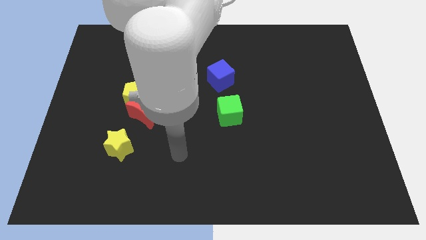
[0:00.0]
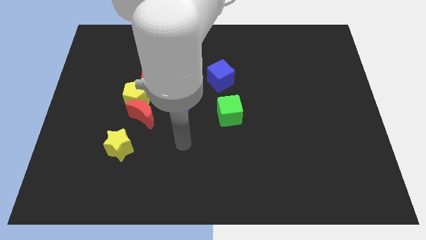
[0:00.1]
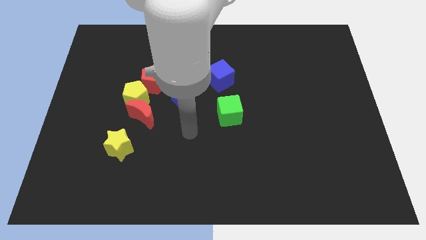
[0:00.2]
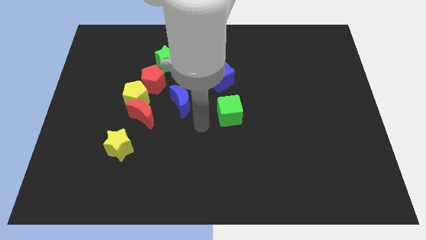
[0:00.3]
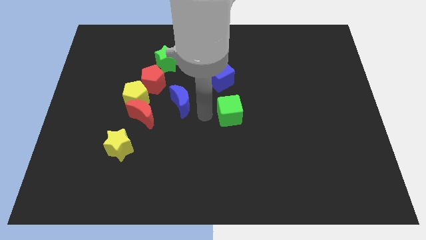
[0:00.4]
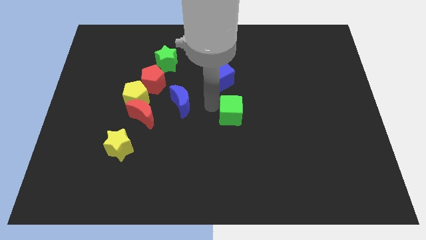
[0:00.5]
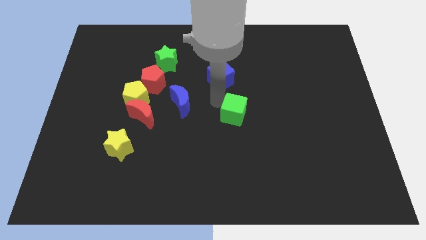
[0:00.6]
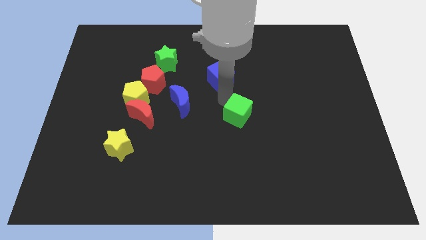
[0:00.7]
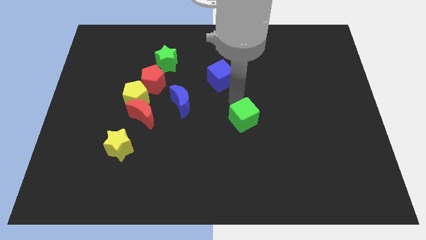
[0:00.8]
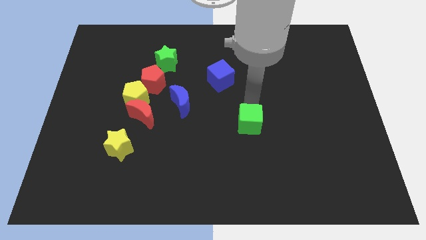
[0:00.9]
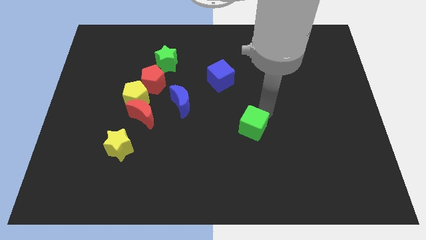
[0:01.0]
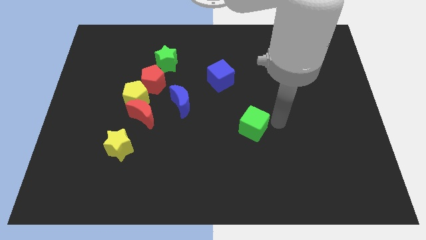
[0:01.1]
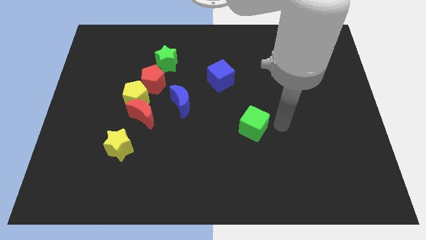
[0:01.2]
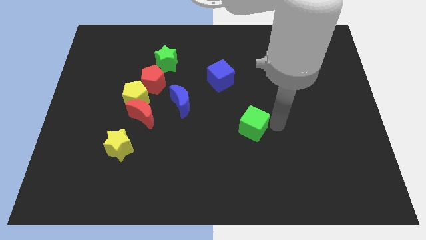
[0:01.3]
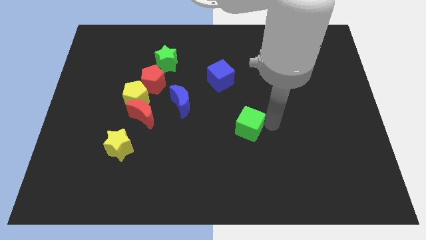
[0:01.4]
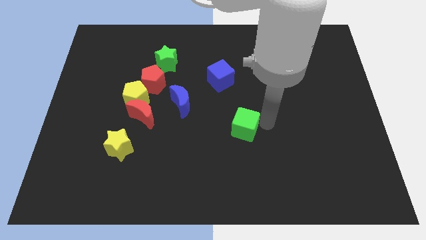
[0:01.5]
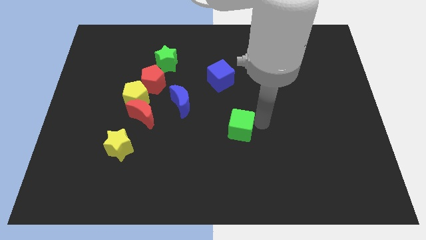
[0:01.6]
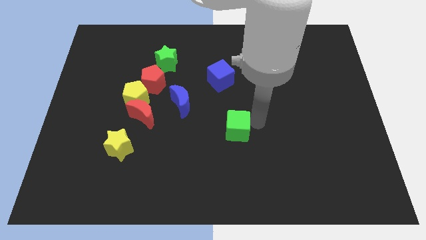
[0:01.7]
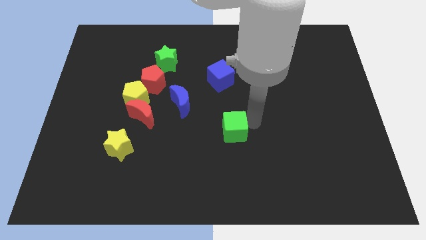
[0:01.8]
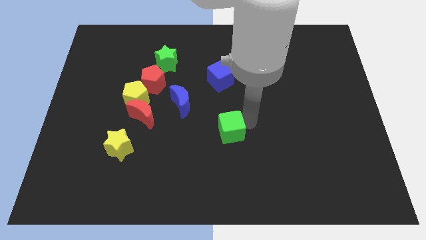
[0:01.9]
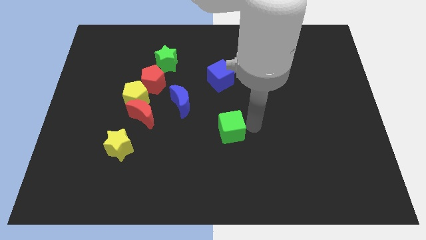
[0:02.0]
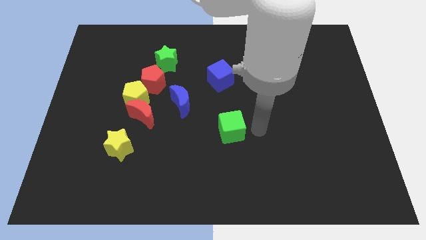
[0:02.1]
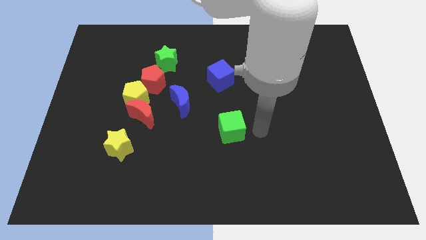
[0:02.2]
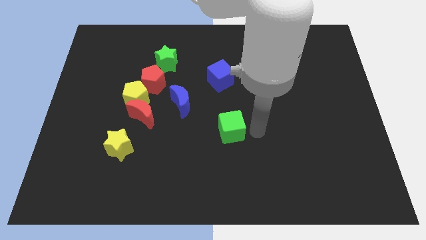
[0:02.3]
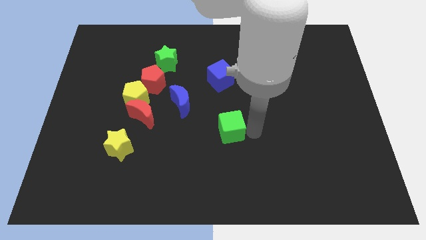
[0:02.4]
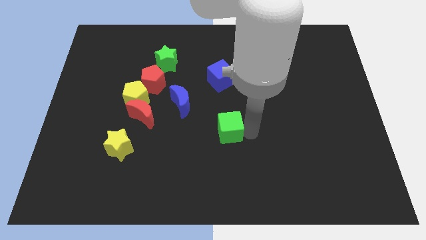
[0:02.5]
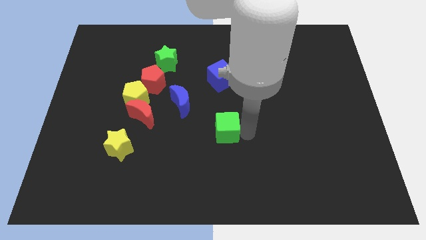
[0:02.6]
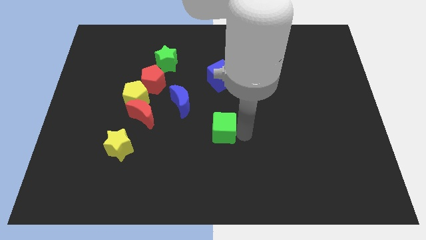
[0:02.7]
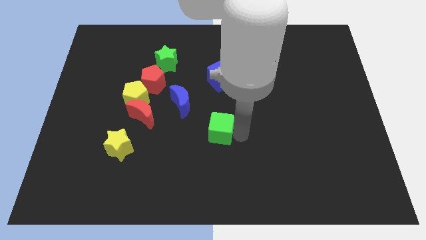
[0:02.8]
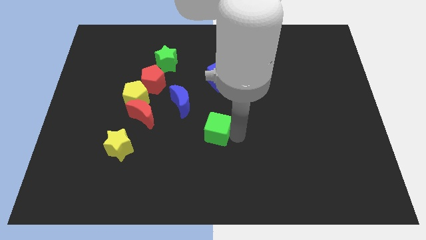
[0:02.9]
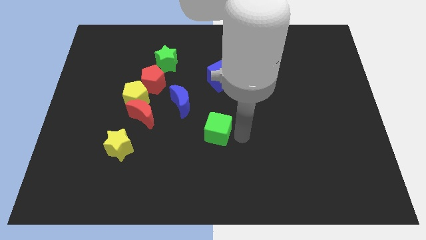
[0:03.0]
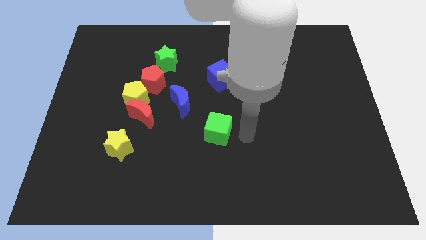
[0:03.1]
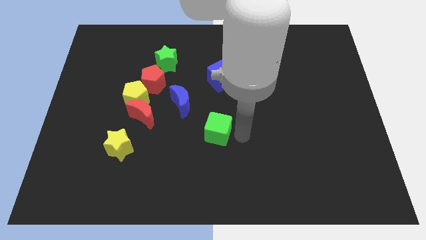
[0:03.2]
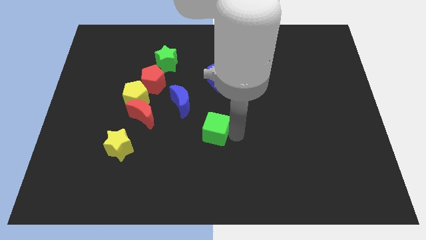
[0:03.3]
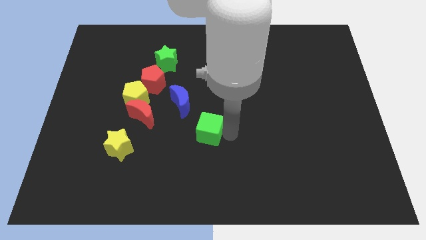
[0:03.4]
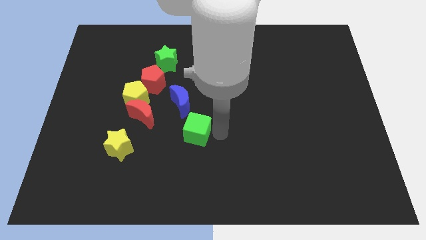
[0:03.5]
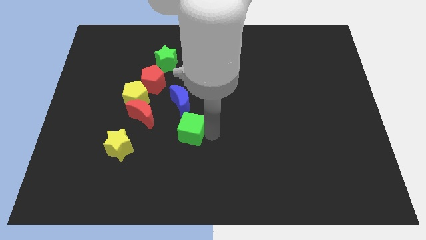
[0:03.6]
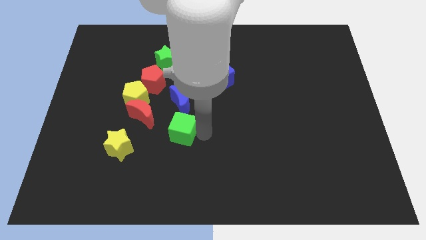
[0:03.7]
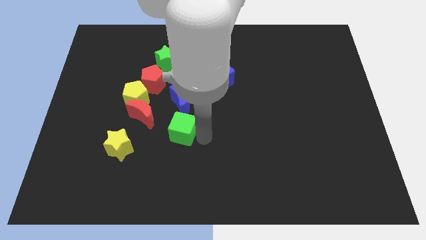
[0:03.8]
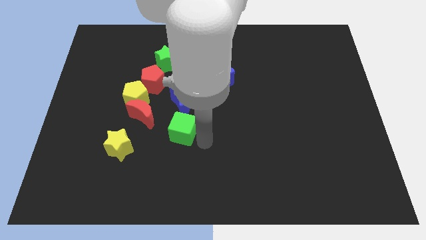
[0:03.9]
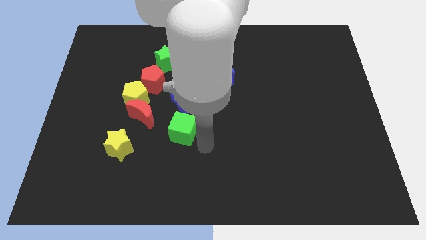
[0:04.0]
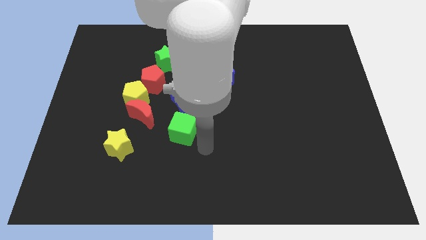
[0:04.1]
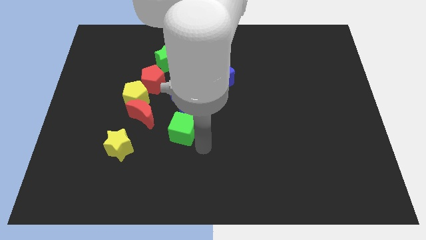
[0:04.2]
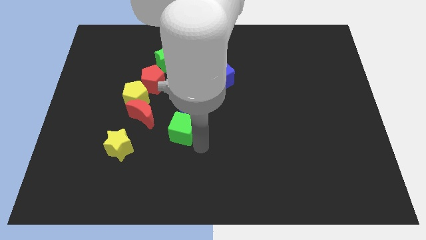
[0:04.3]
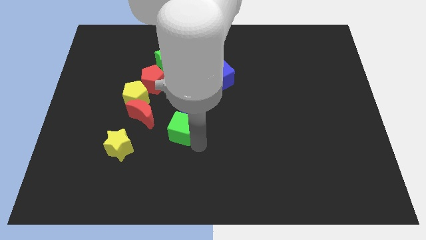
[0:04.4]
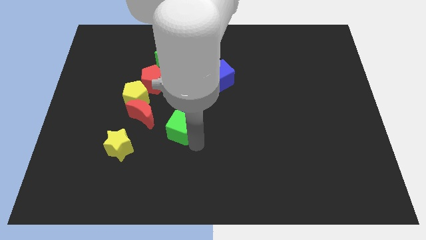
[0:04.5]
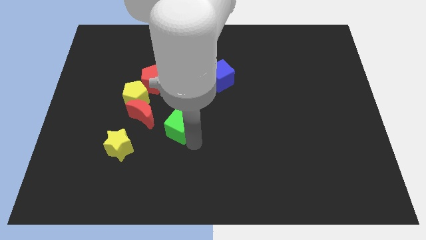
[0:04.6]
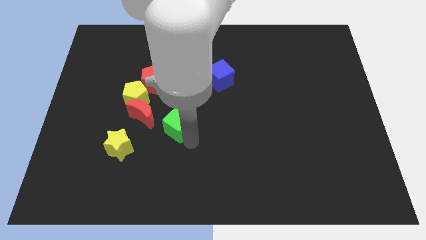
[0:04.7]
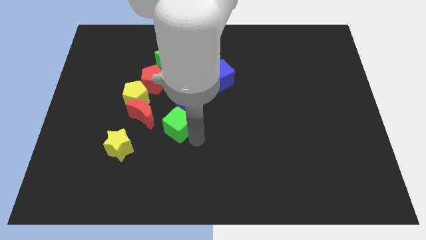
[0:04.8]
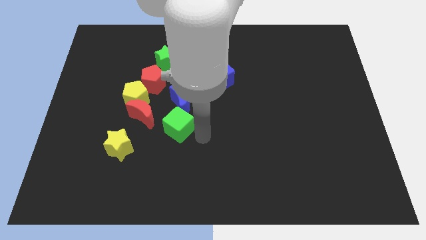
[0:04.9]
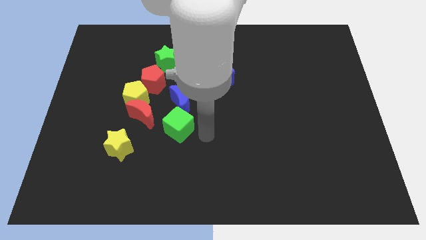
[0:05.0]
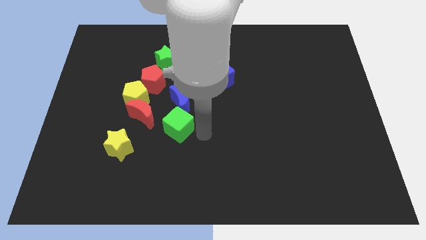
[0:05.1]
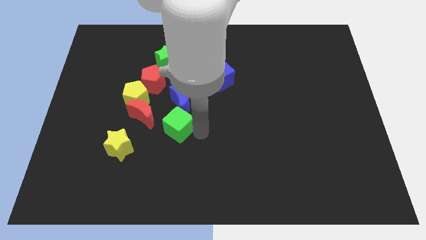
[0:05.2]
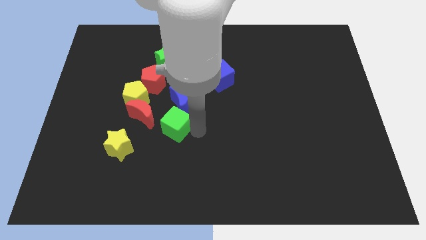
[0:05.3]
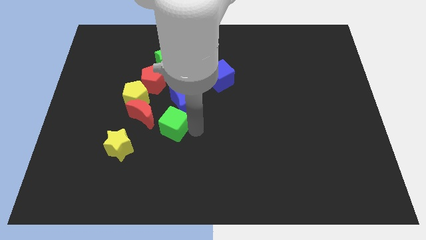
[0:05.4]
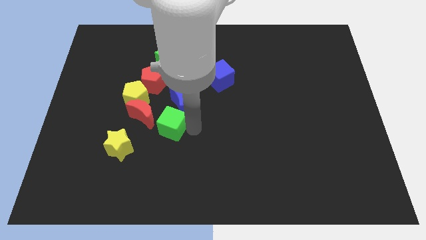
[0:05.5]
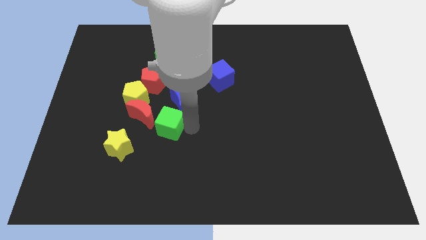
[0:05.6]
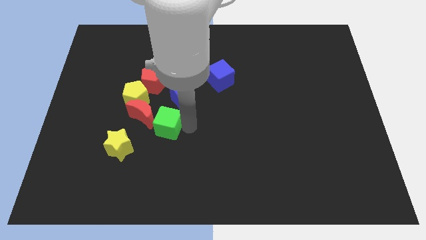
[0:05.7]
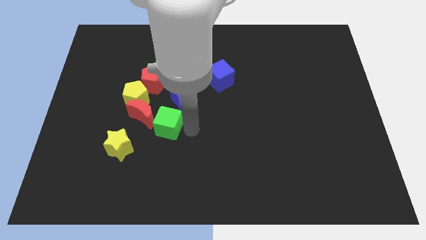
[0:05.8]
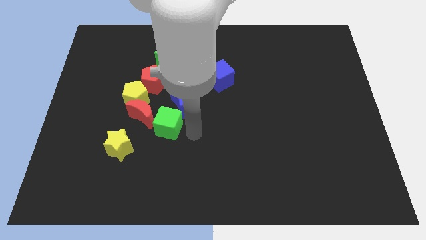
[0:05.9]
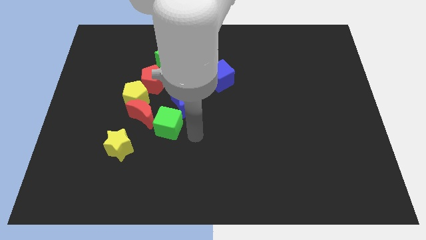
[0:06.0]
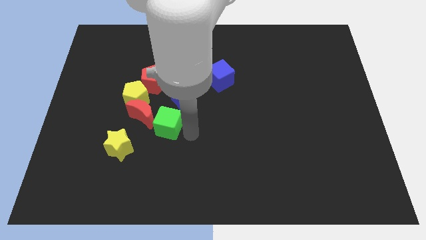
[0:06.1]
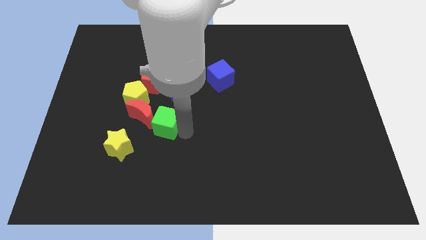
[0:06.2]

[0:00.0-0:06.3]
push the green cube to the red moon

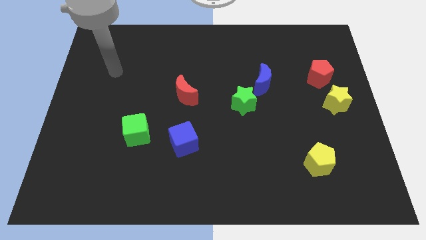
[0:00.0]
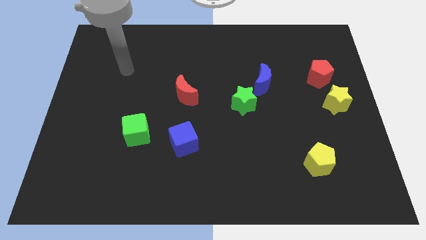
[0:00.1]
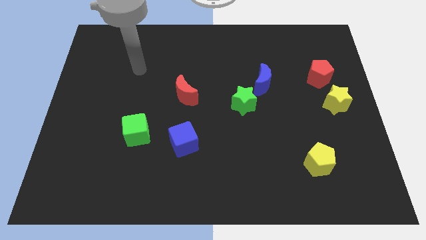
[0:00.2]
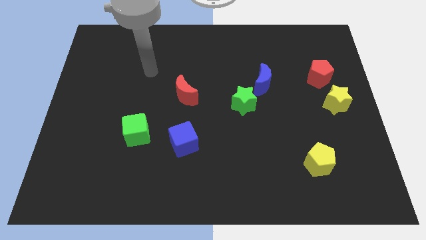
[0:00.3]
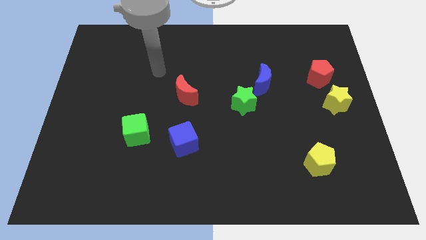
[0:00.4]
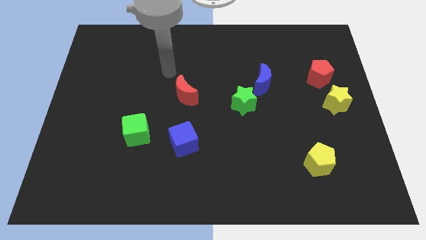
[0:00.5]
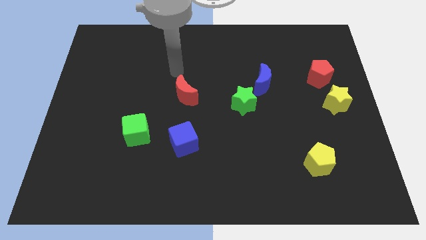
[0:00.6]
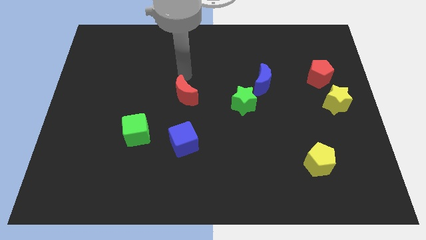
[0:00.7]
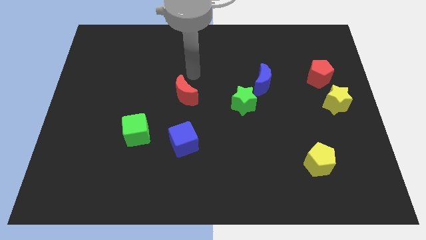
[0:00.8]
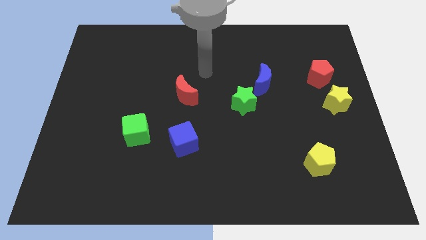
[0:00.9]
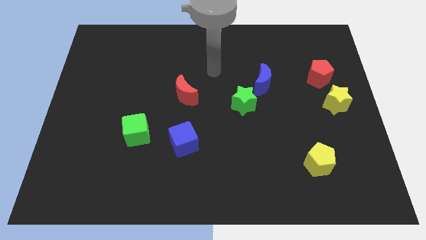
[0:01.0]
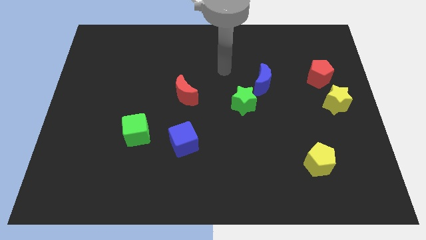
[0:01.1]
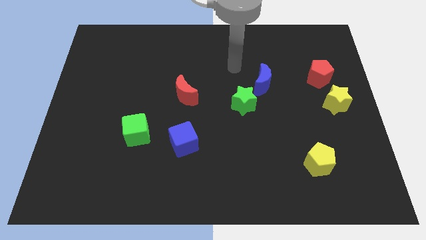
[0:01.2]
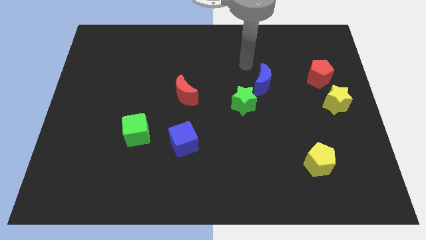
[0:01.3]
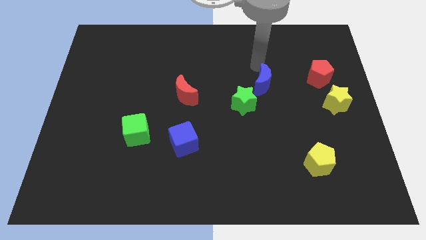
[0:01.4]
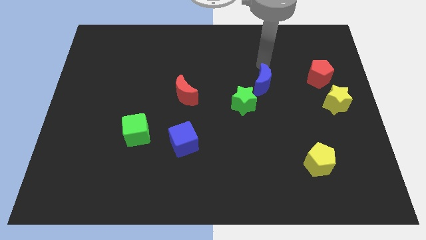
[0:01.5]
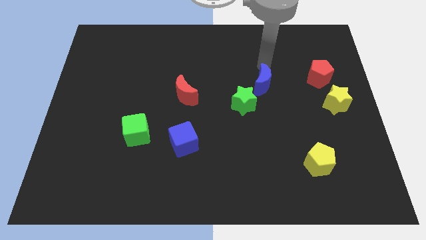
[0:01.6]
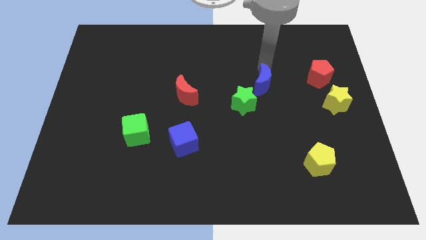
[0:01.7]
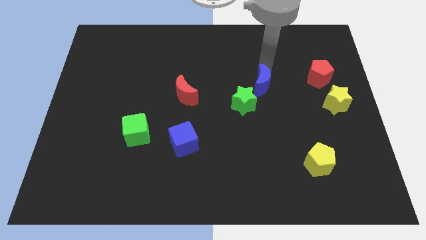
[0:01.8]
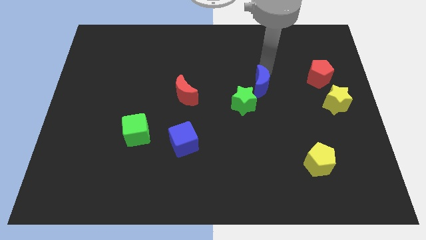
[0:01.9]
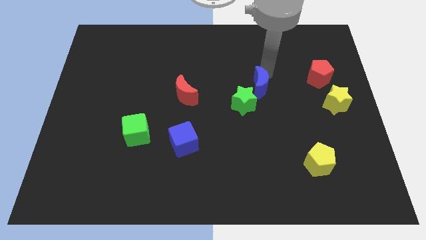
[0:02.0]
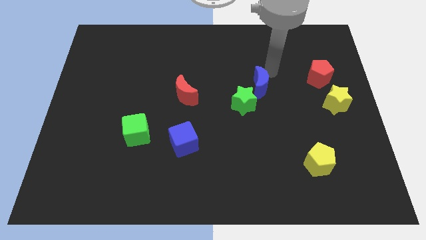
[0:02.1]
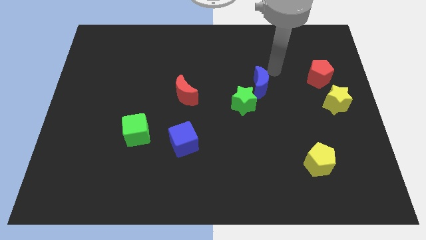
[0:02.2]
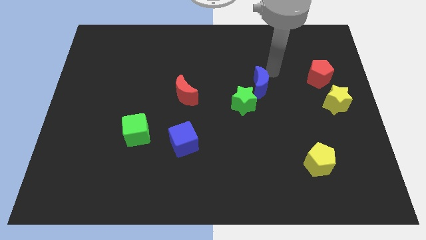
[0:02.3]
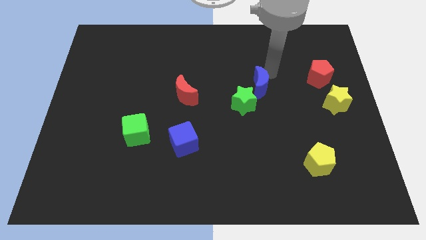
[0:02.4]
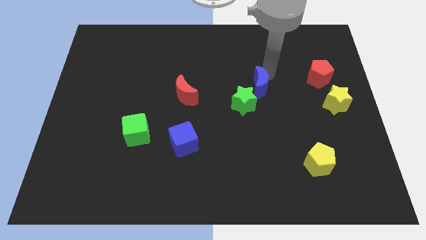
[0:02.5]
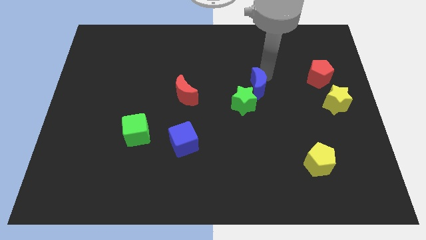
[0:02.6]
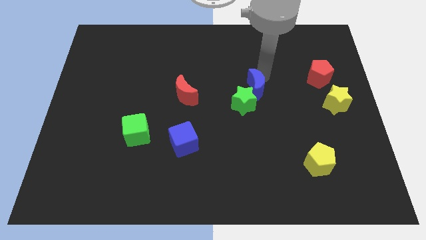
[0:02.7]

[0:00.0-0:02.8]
push the blue moon towards the green star
